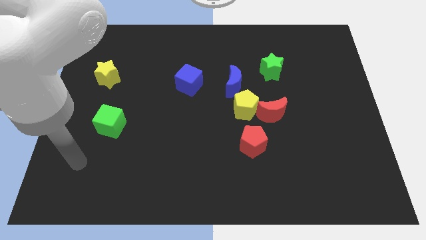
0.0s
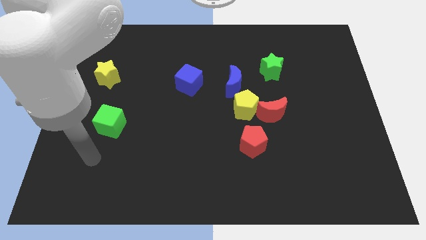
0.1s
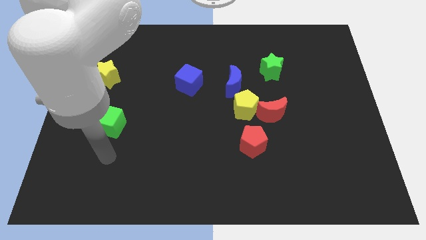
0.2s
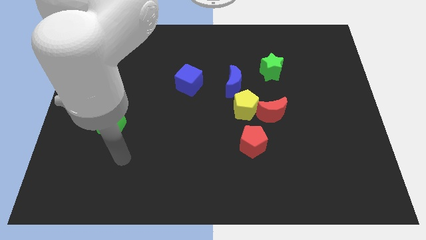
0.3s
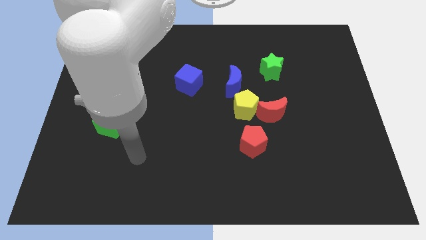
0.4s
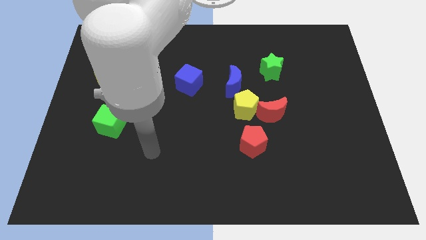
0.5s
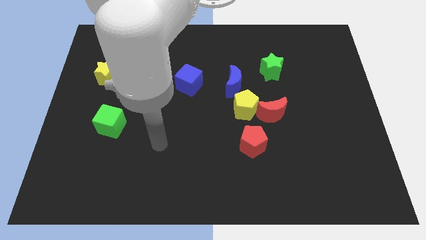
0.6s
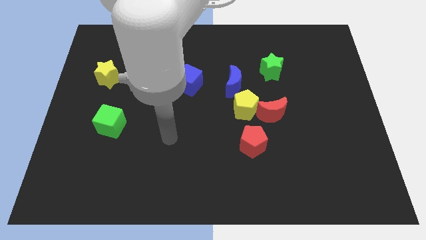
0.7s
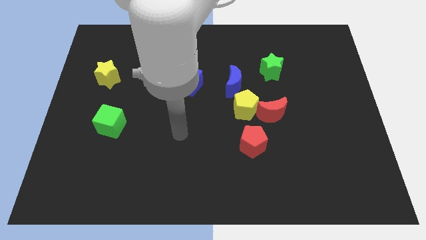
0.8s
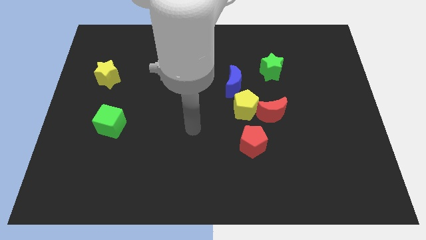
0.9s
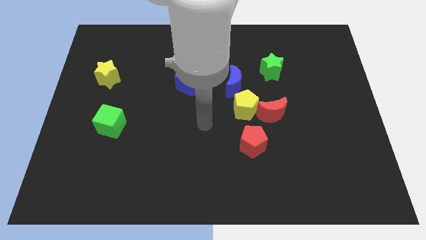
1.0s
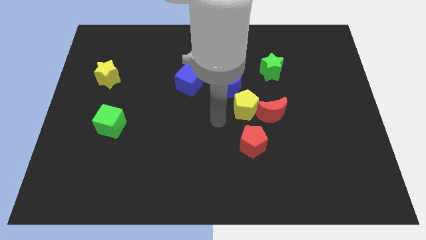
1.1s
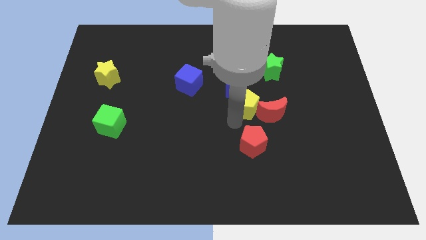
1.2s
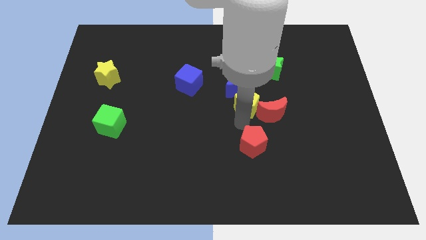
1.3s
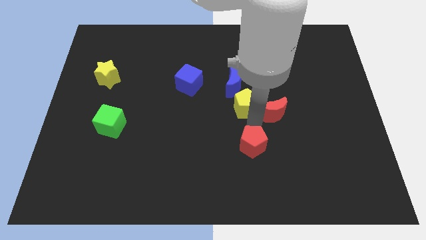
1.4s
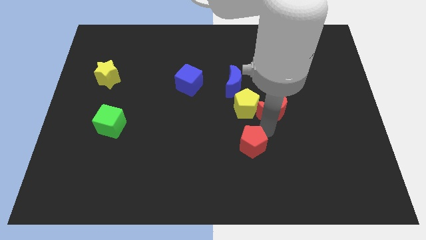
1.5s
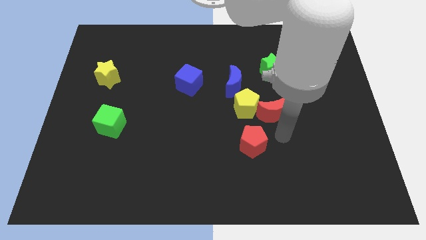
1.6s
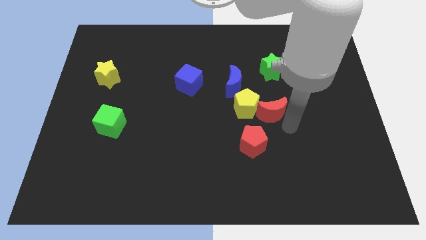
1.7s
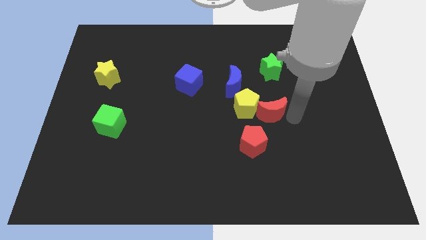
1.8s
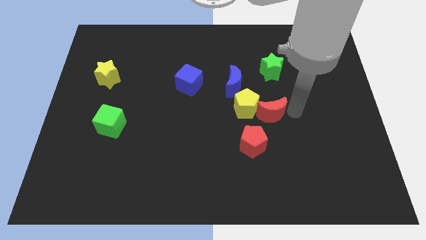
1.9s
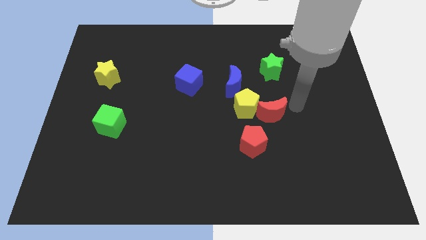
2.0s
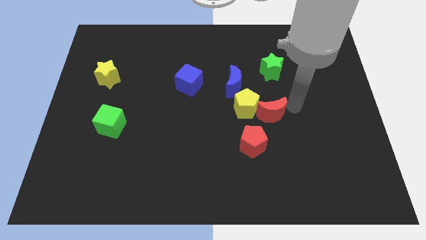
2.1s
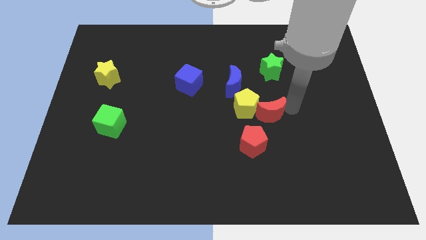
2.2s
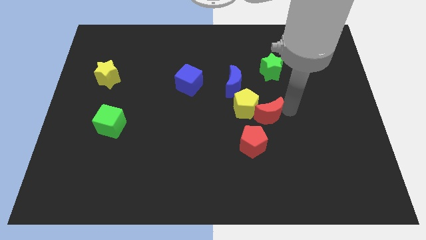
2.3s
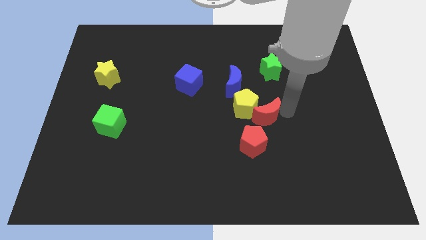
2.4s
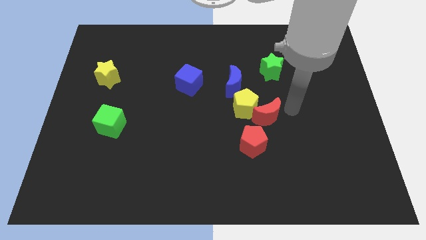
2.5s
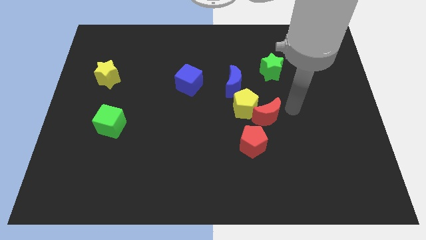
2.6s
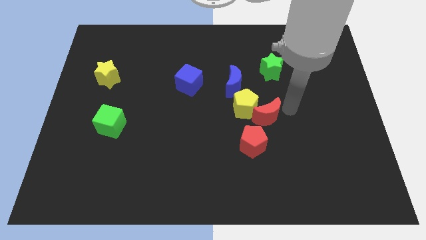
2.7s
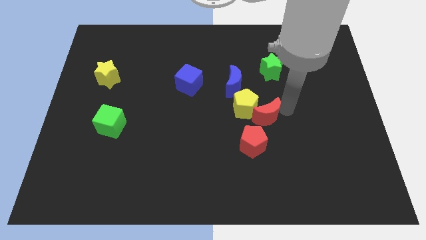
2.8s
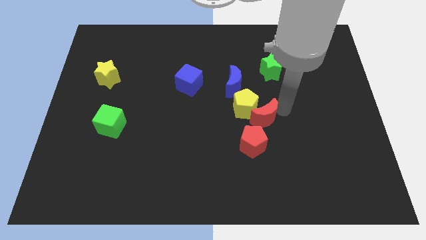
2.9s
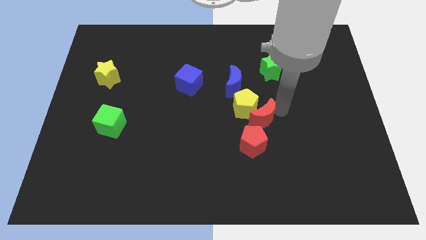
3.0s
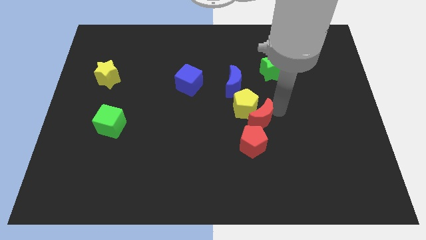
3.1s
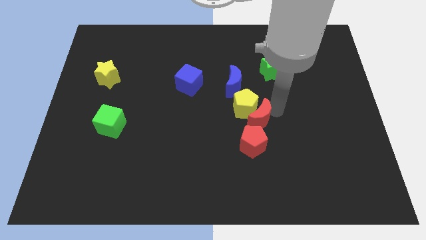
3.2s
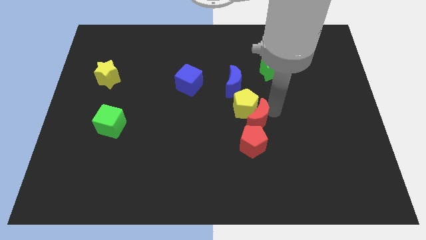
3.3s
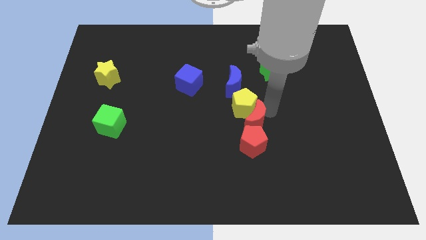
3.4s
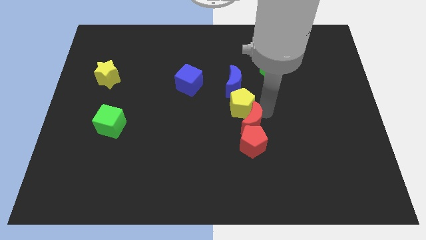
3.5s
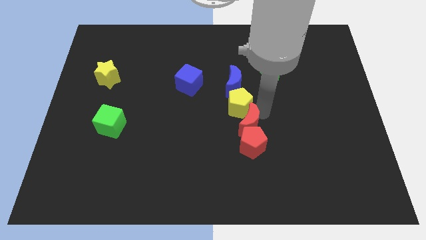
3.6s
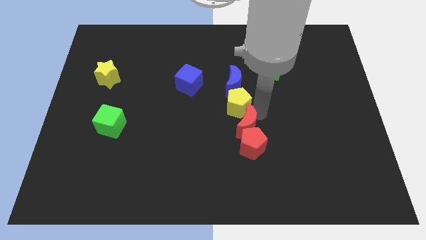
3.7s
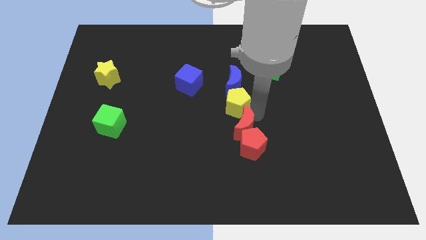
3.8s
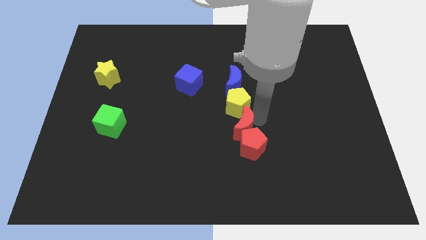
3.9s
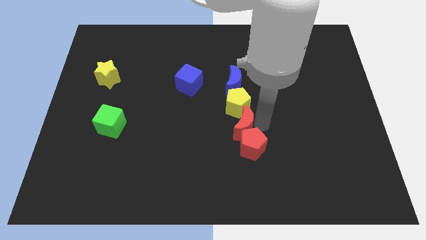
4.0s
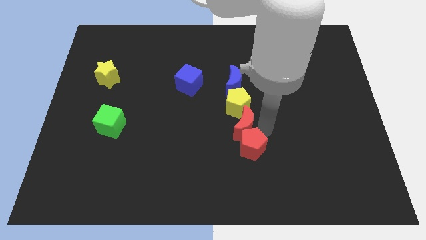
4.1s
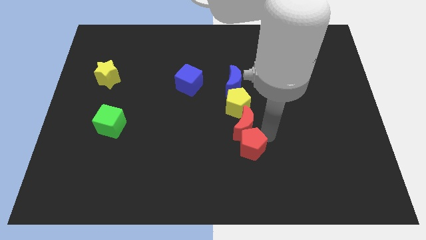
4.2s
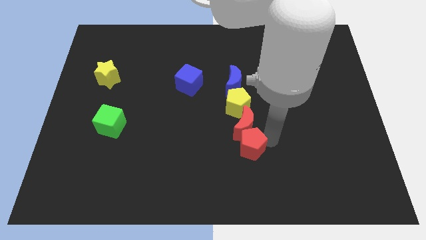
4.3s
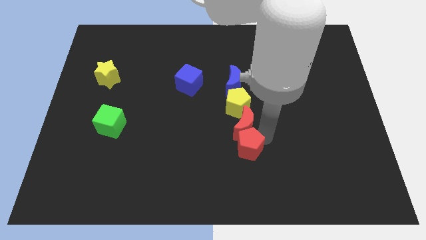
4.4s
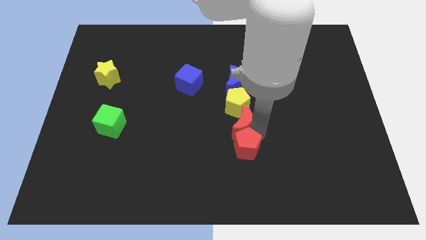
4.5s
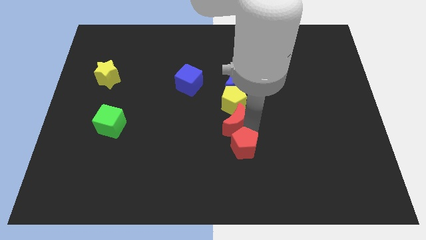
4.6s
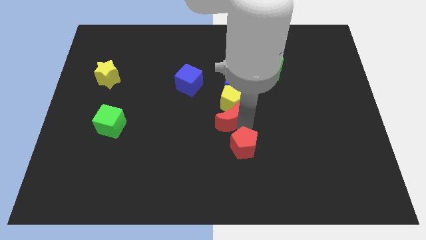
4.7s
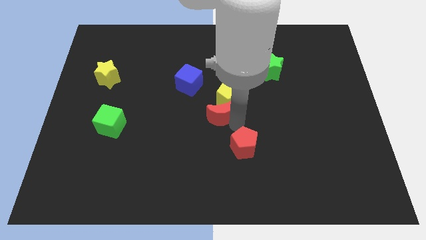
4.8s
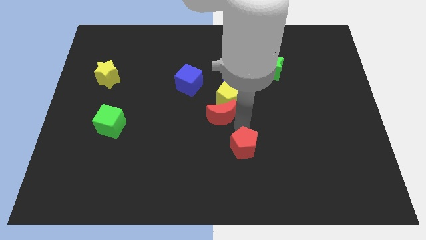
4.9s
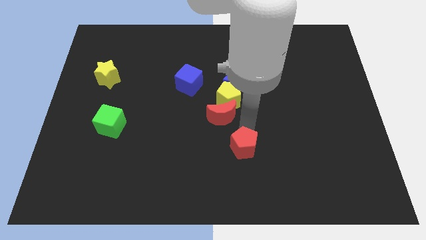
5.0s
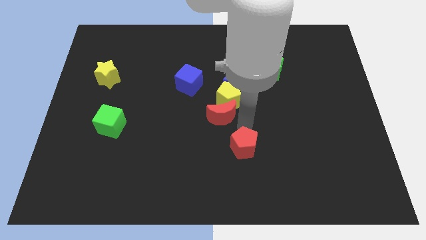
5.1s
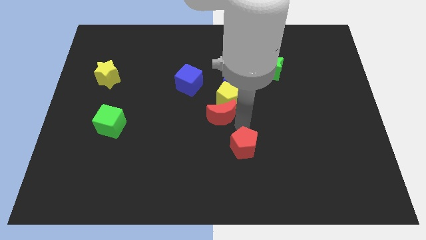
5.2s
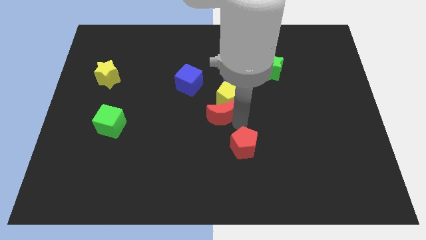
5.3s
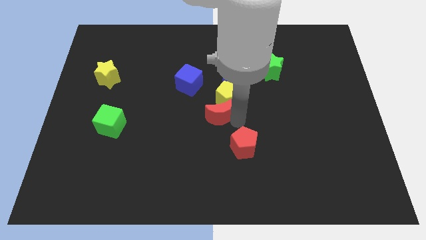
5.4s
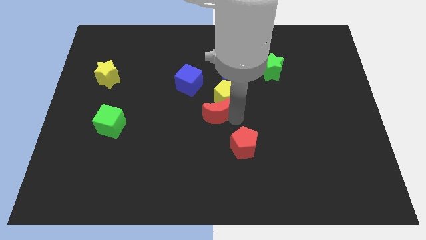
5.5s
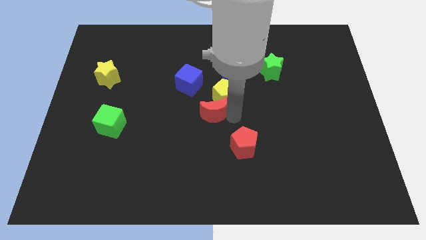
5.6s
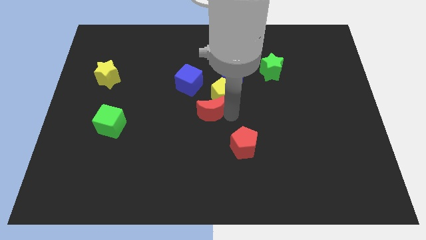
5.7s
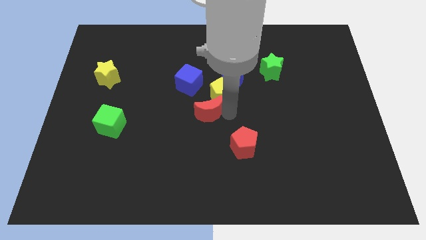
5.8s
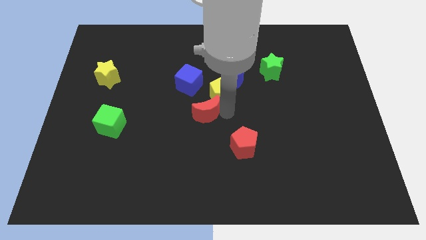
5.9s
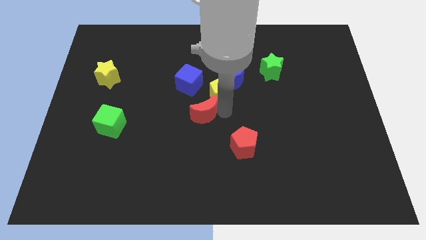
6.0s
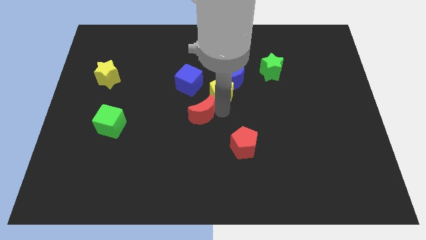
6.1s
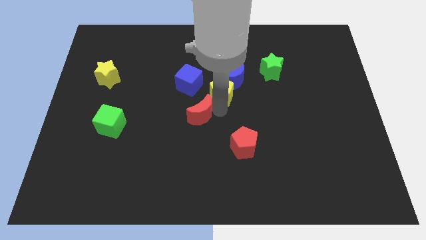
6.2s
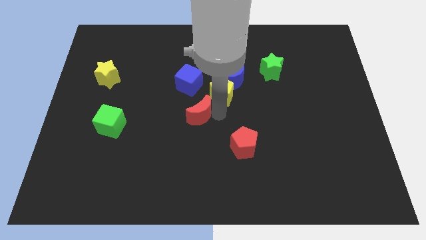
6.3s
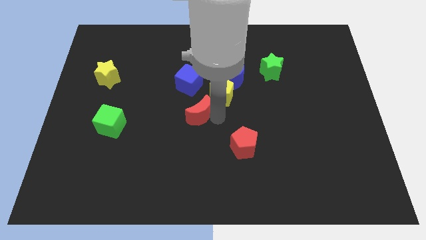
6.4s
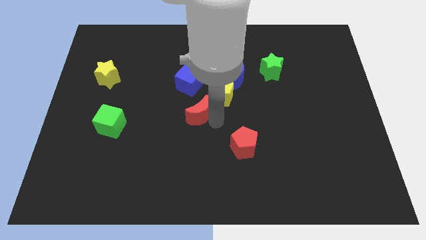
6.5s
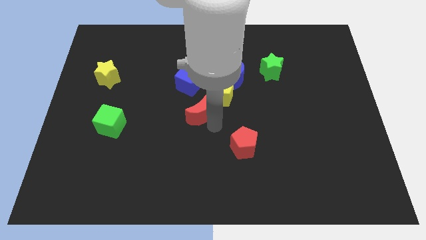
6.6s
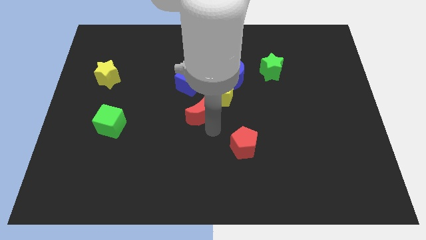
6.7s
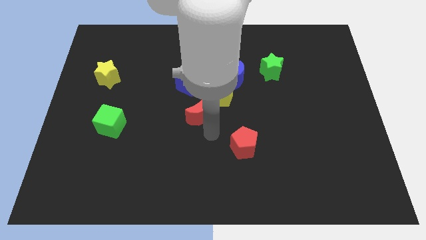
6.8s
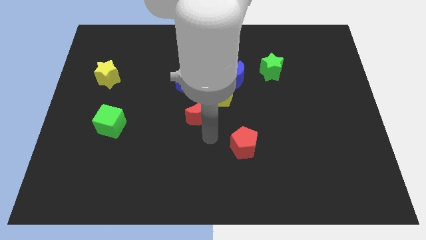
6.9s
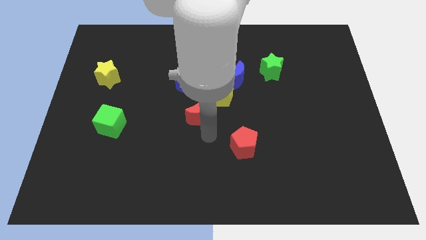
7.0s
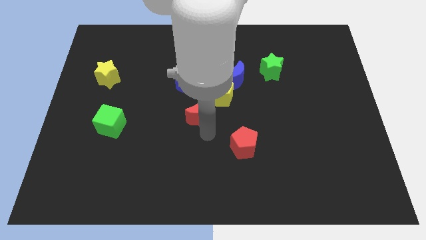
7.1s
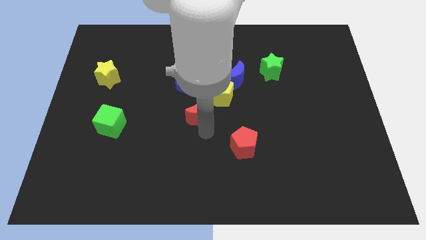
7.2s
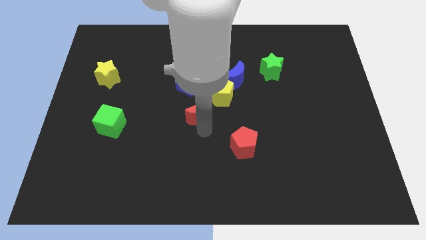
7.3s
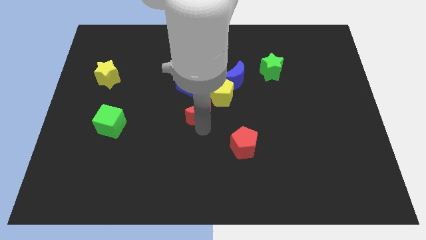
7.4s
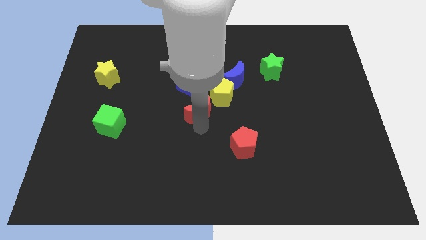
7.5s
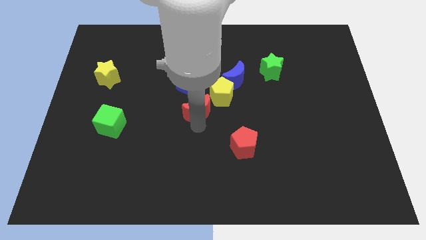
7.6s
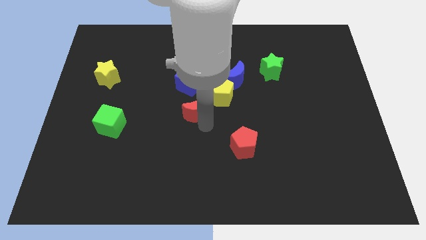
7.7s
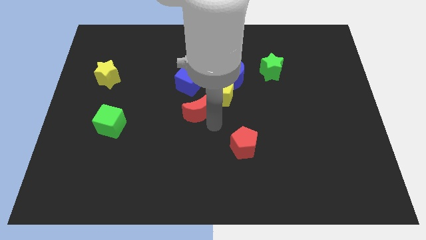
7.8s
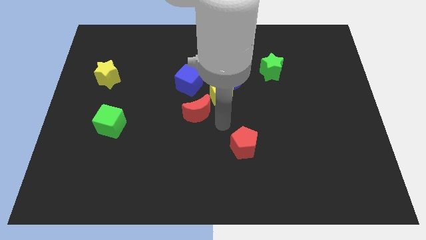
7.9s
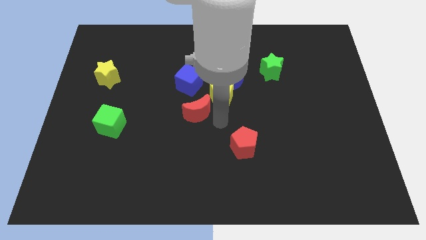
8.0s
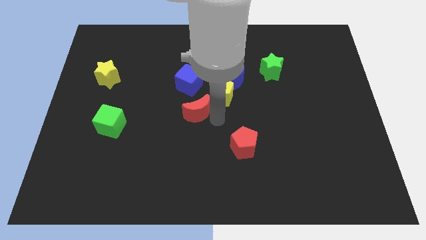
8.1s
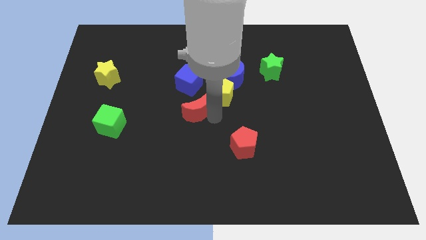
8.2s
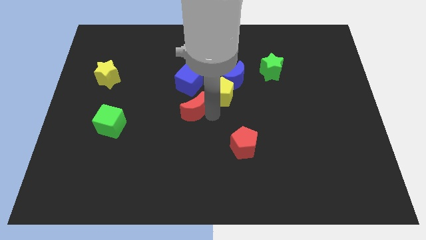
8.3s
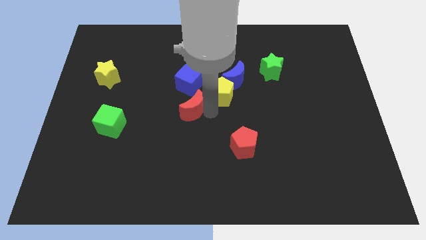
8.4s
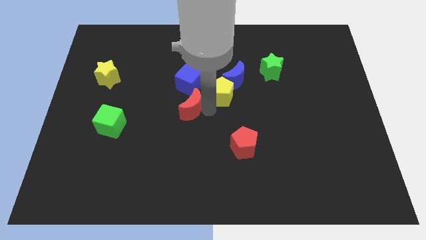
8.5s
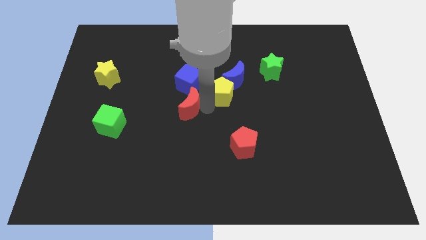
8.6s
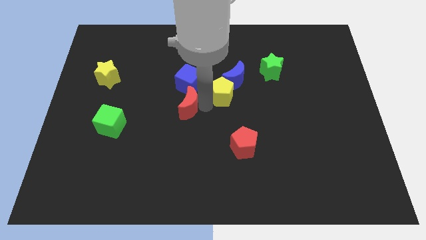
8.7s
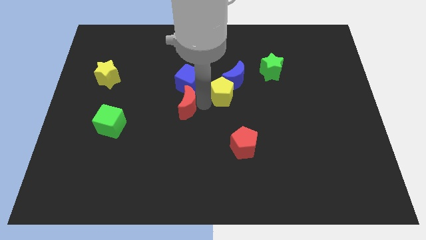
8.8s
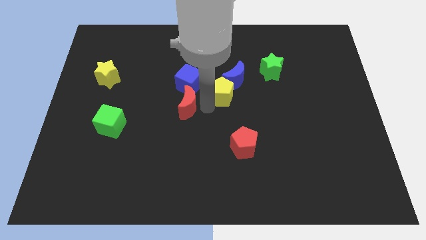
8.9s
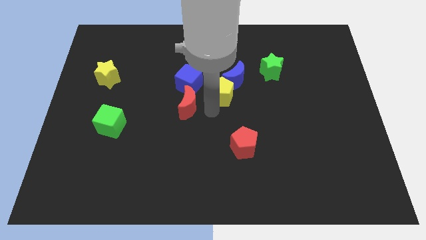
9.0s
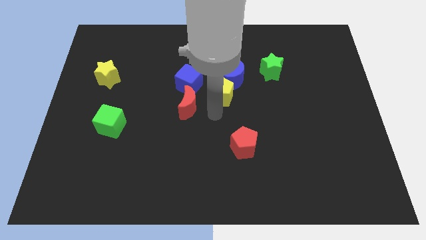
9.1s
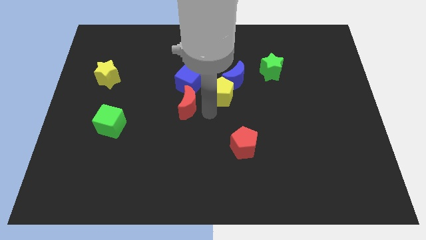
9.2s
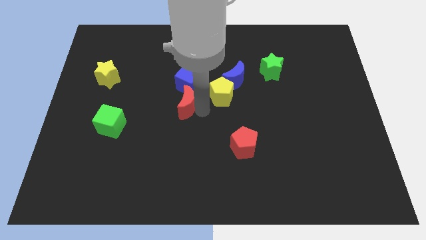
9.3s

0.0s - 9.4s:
push the red moon diagonally down and to the left of the blue cube
